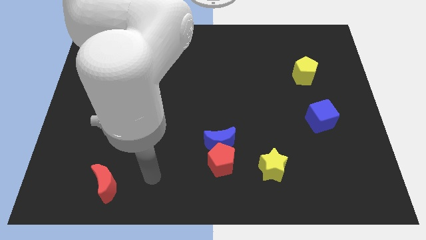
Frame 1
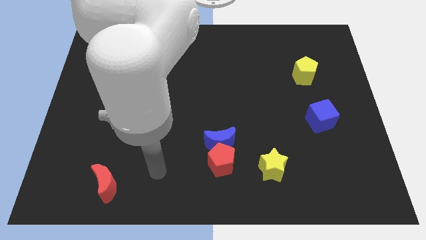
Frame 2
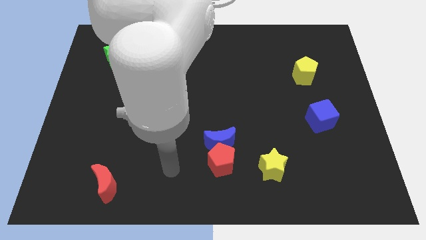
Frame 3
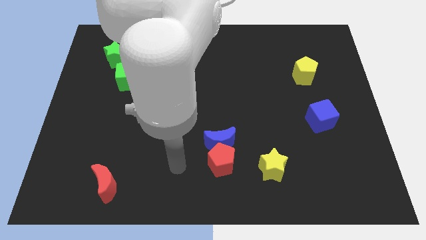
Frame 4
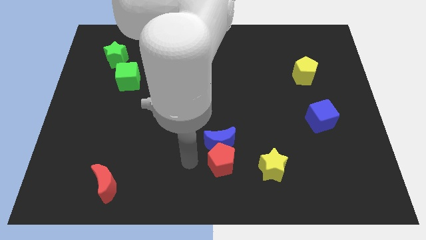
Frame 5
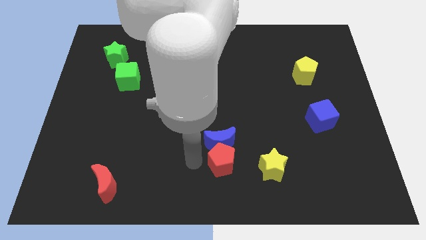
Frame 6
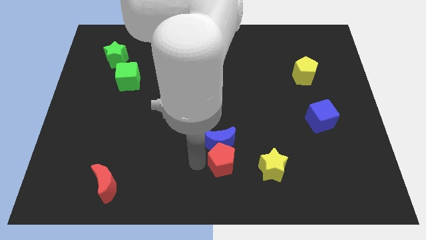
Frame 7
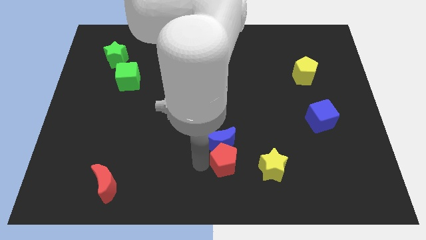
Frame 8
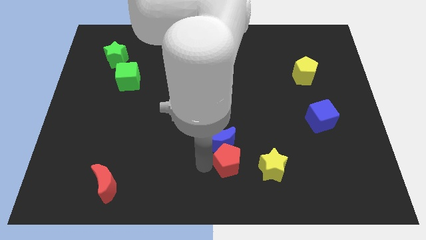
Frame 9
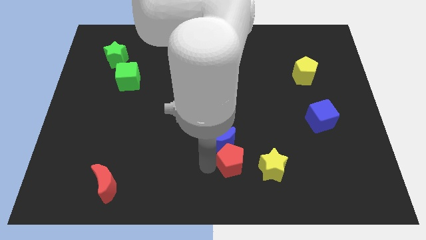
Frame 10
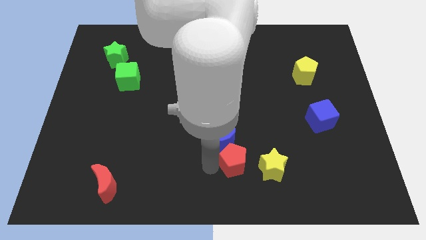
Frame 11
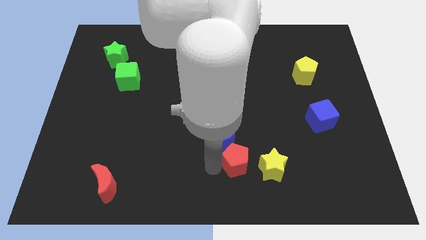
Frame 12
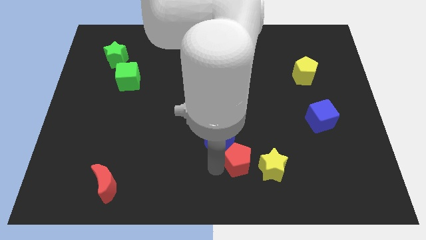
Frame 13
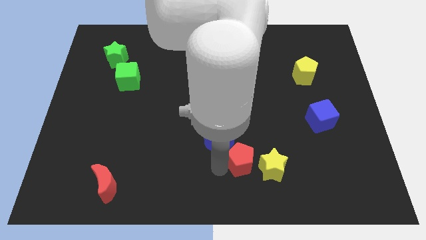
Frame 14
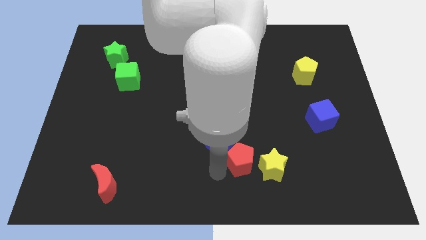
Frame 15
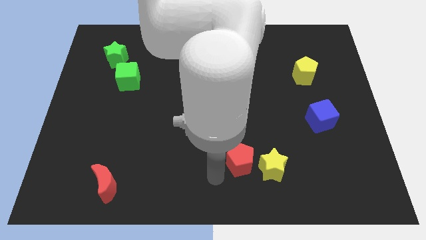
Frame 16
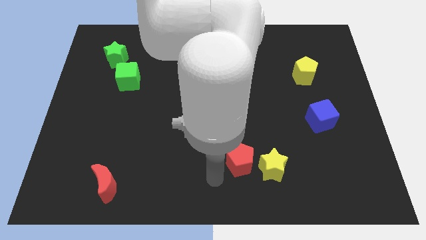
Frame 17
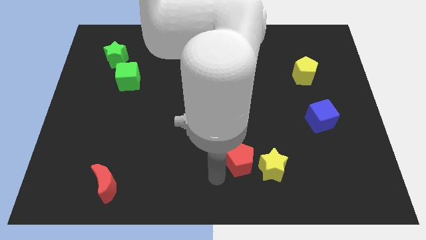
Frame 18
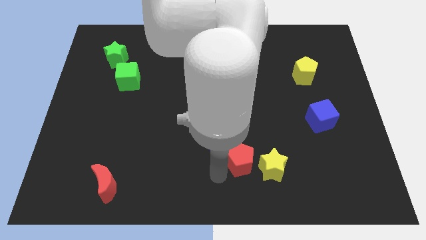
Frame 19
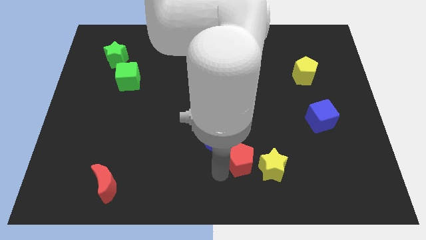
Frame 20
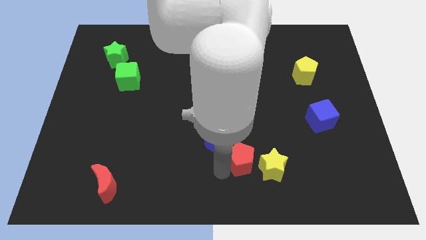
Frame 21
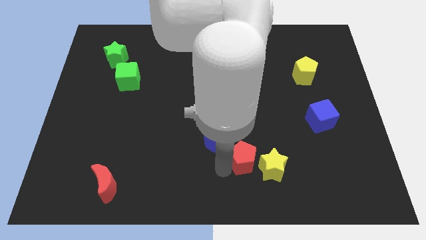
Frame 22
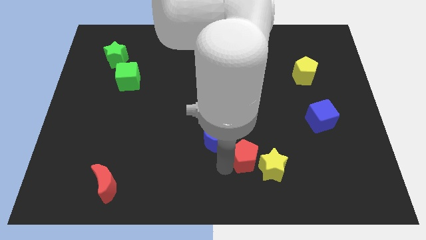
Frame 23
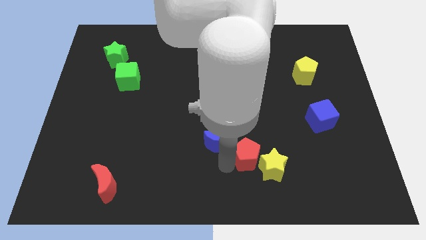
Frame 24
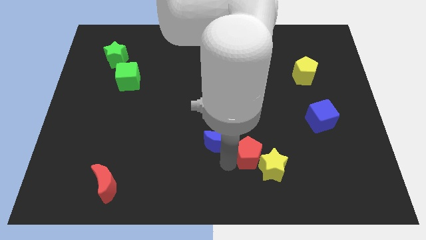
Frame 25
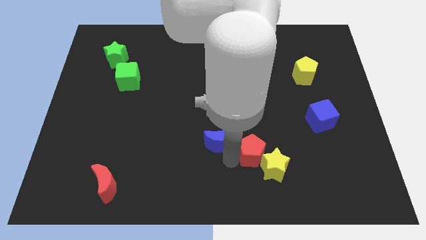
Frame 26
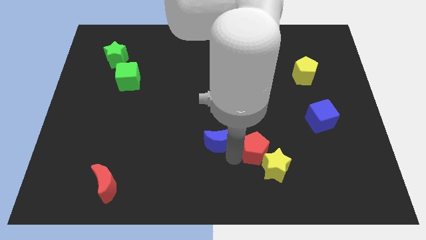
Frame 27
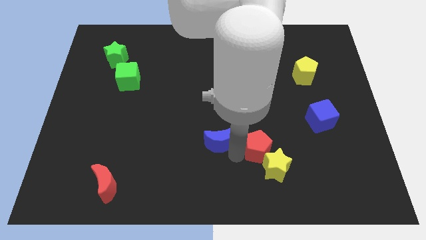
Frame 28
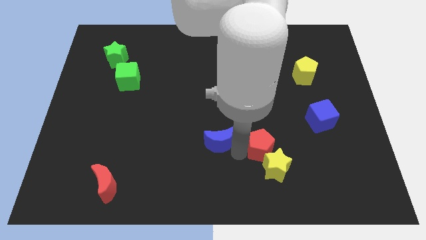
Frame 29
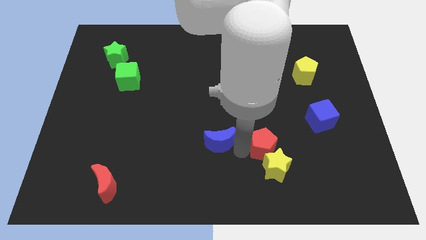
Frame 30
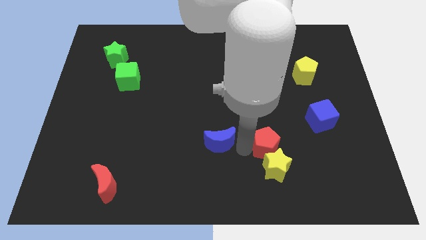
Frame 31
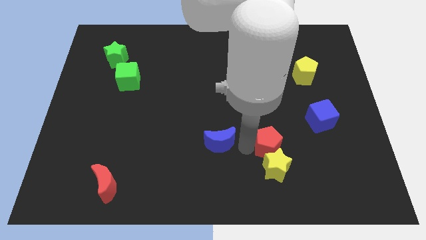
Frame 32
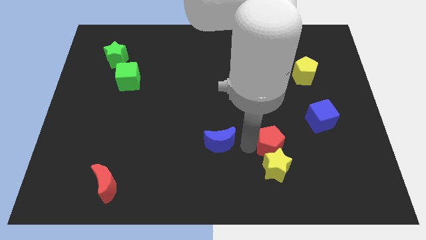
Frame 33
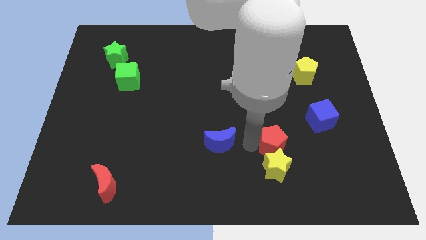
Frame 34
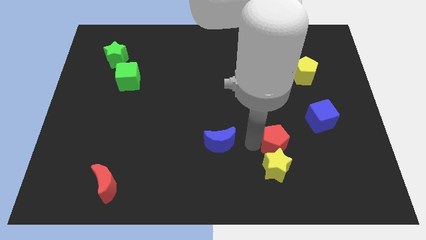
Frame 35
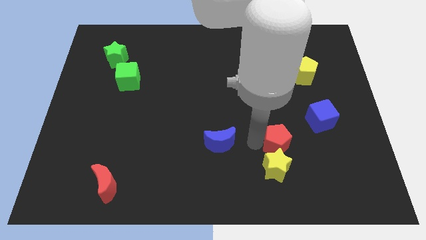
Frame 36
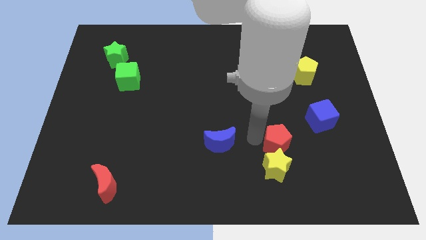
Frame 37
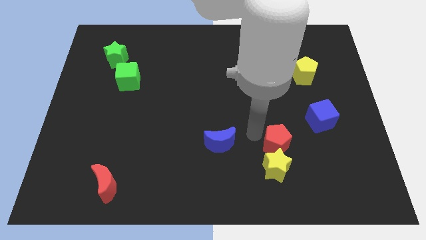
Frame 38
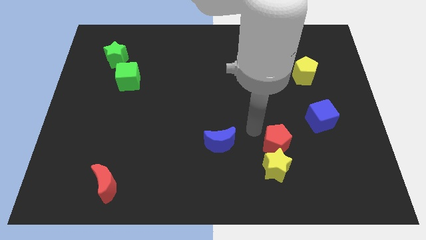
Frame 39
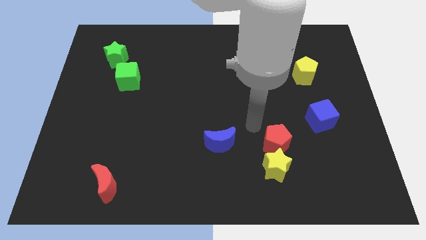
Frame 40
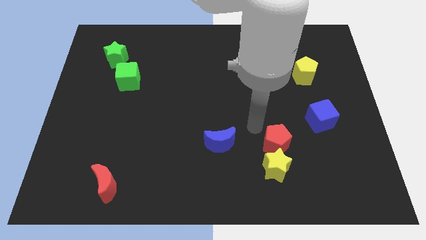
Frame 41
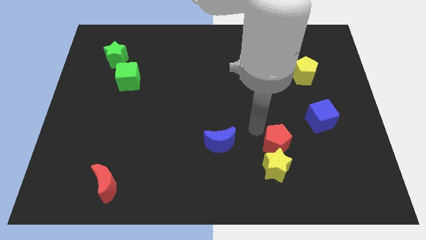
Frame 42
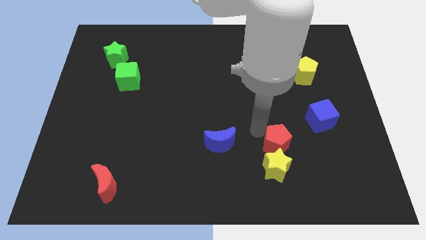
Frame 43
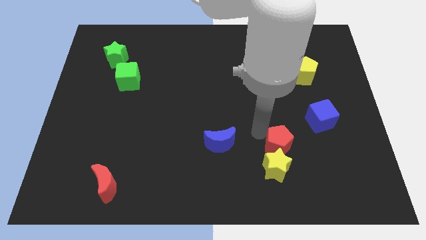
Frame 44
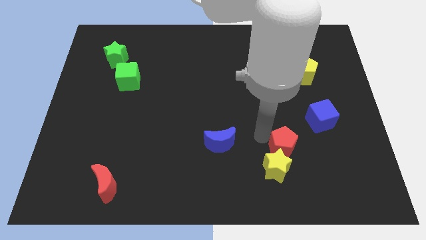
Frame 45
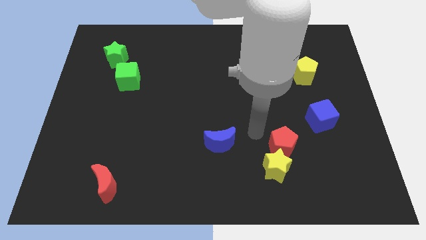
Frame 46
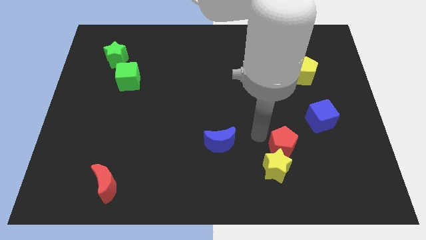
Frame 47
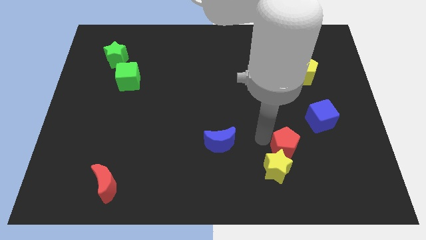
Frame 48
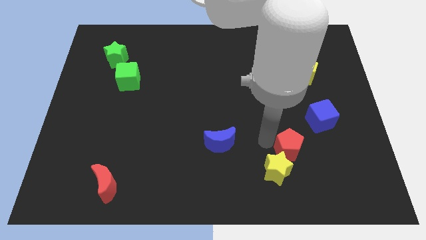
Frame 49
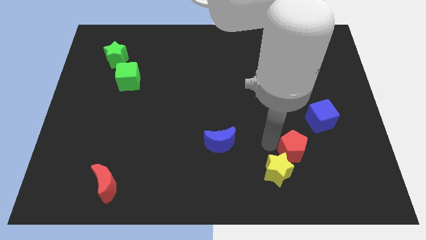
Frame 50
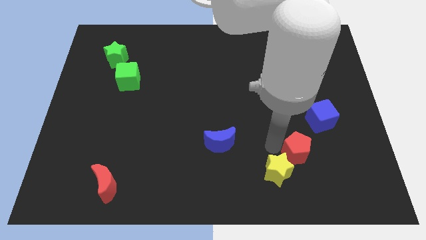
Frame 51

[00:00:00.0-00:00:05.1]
move the red pentagon right of the yellow star

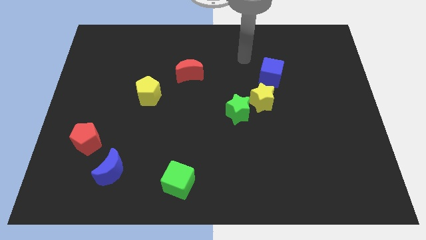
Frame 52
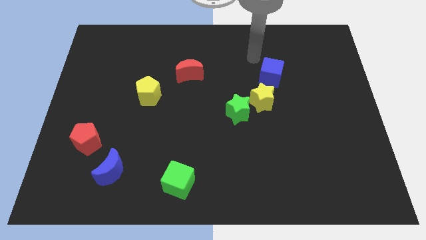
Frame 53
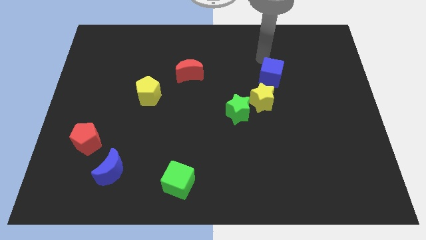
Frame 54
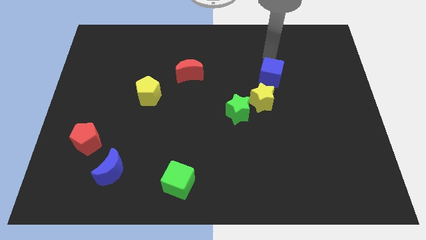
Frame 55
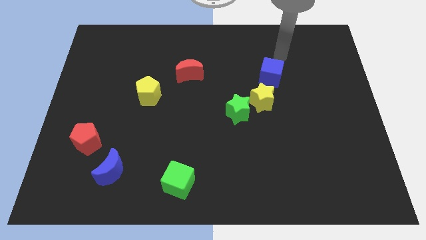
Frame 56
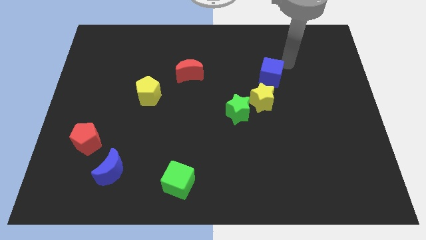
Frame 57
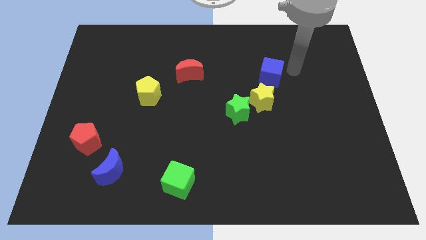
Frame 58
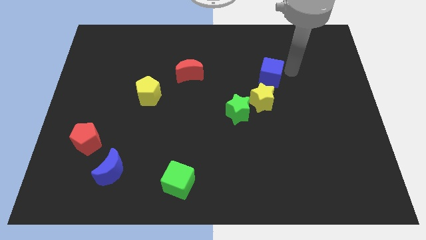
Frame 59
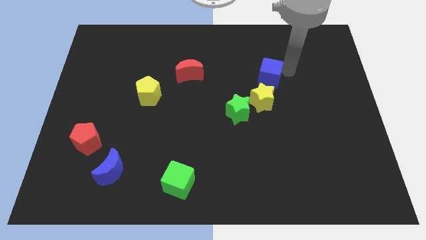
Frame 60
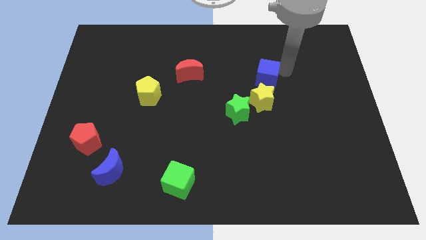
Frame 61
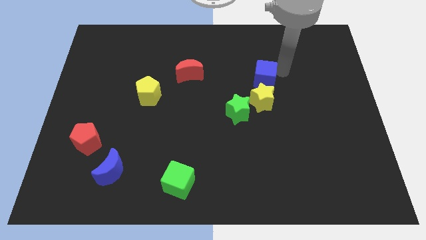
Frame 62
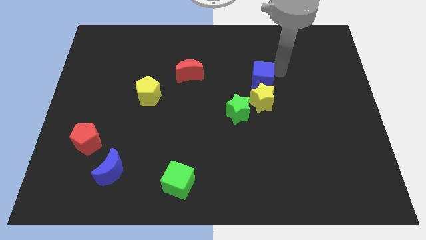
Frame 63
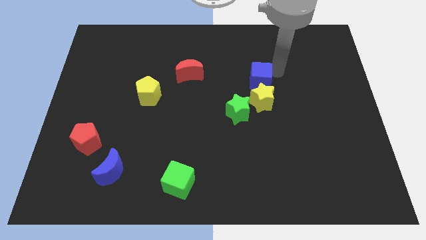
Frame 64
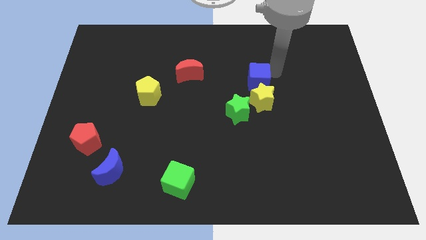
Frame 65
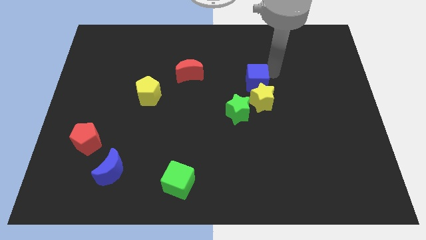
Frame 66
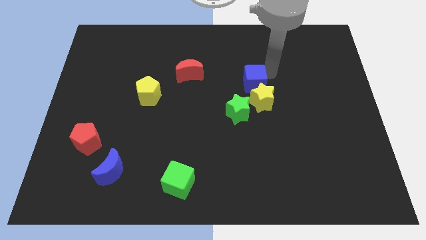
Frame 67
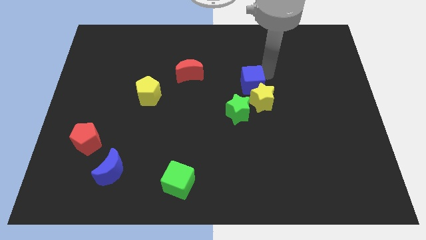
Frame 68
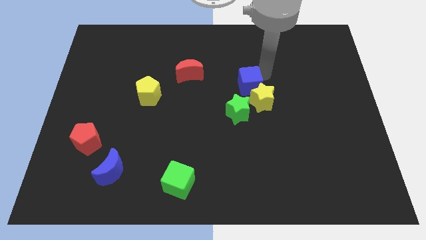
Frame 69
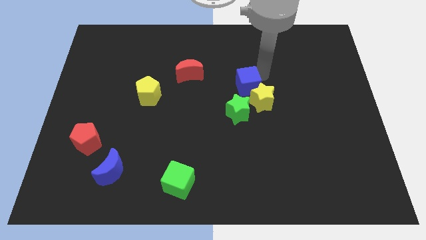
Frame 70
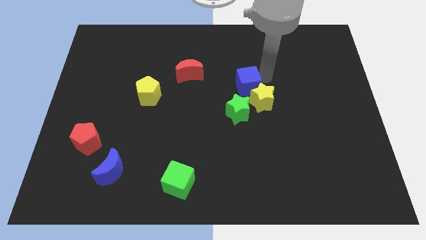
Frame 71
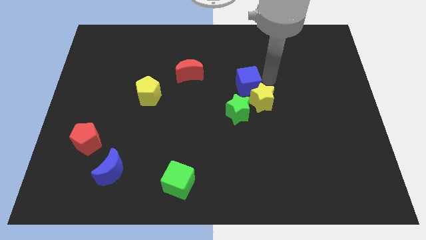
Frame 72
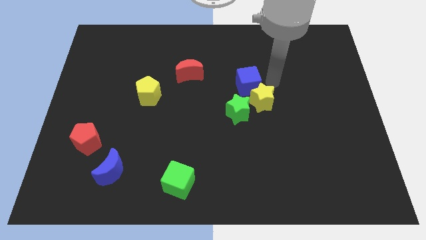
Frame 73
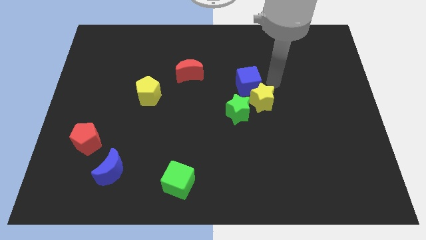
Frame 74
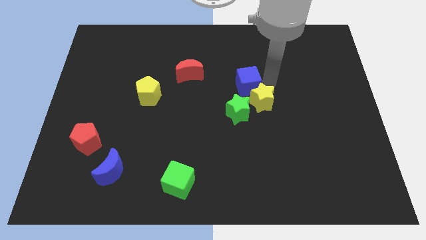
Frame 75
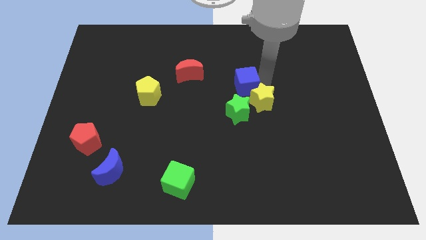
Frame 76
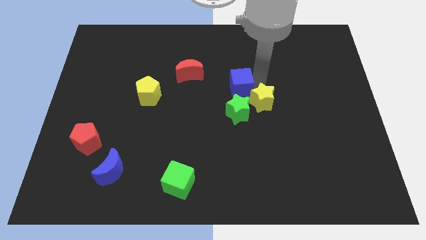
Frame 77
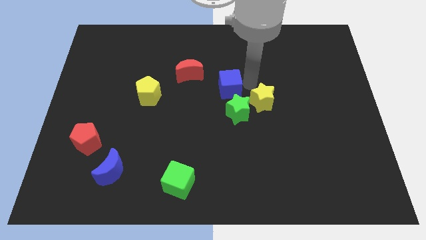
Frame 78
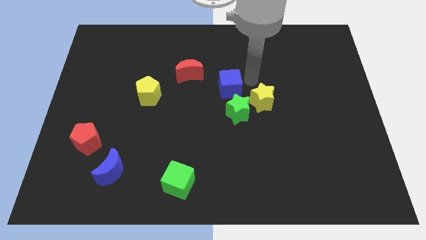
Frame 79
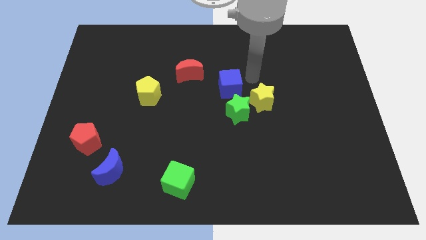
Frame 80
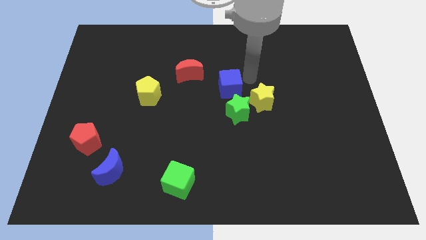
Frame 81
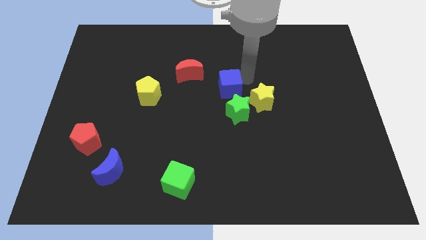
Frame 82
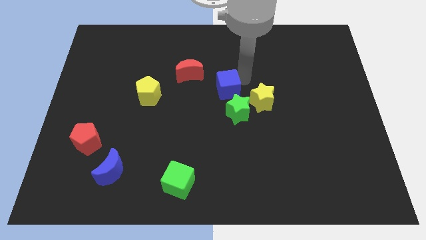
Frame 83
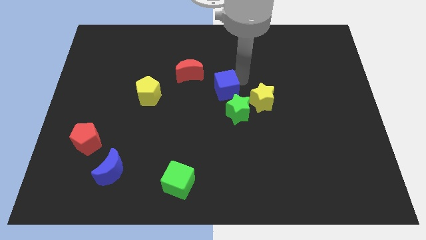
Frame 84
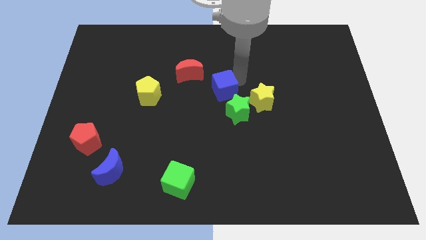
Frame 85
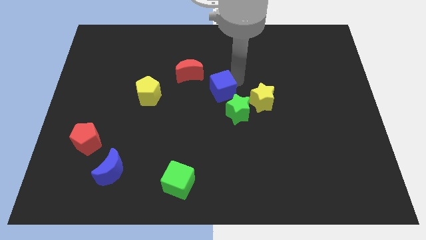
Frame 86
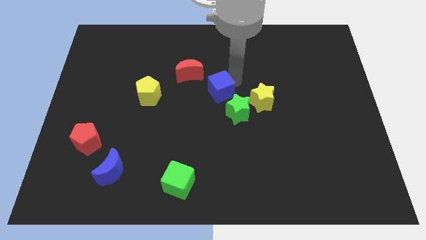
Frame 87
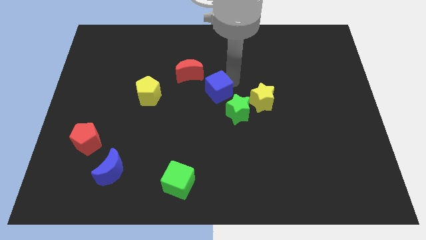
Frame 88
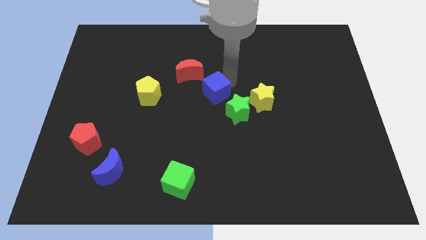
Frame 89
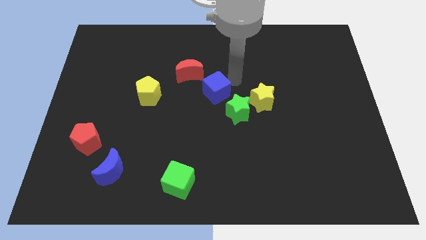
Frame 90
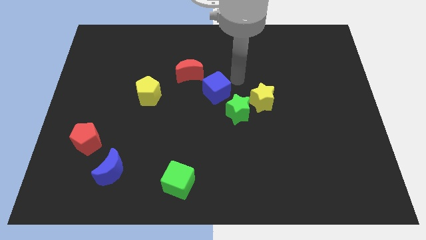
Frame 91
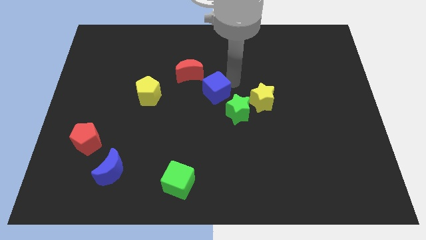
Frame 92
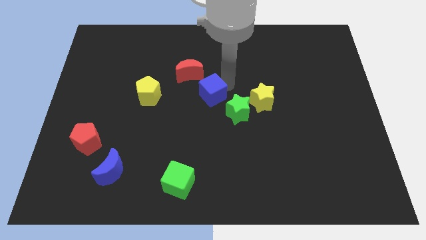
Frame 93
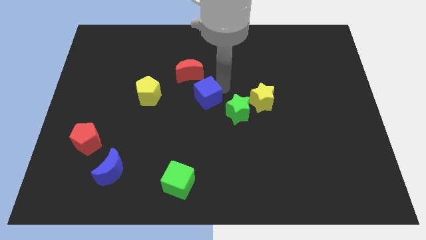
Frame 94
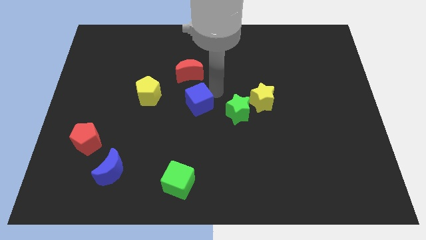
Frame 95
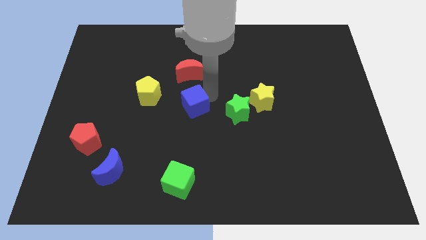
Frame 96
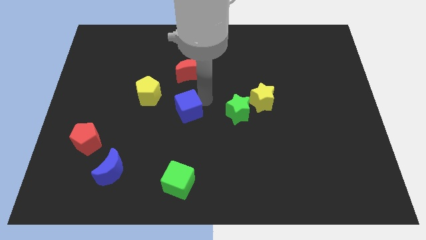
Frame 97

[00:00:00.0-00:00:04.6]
move the blue cube diagonally down and to the right of the yellow pentagon
